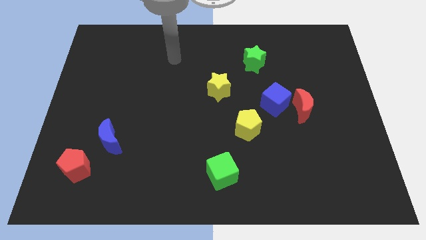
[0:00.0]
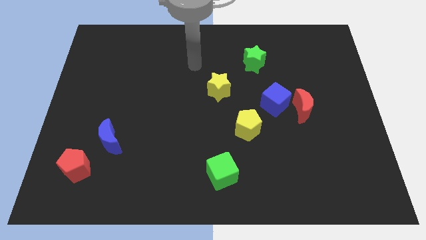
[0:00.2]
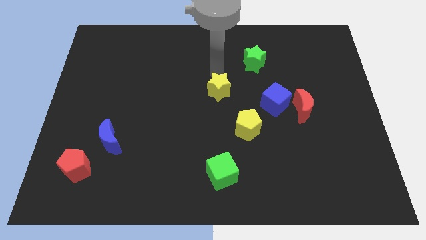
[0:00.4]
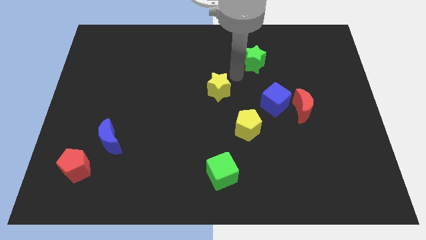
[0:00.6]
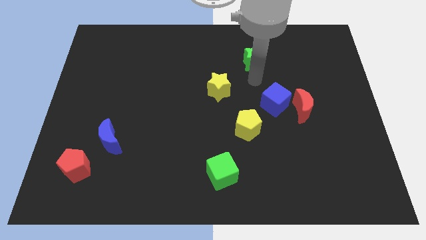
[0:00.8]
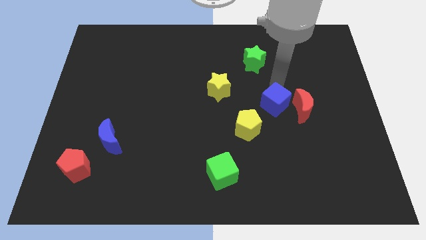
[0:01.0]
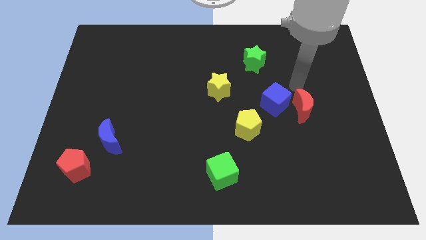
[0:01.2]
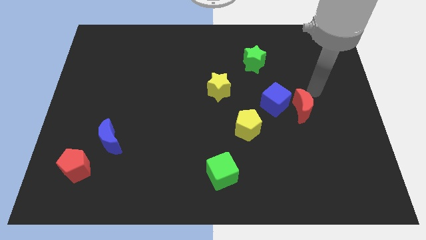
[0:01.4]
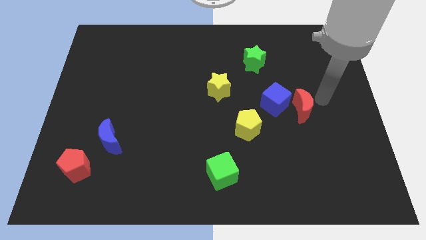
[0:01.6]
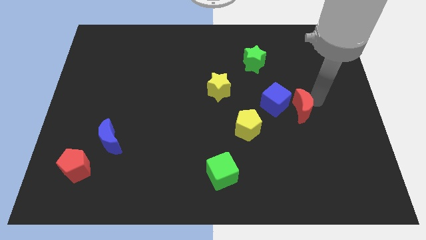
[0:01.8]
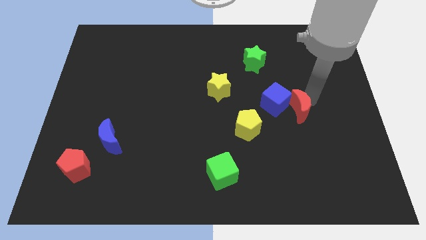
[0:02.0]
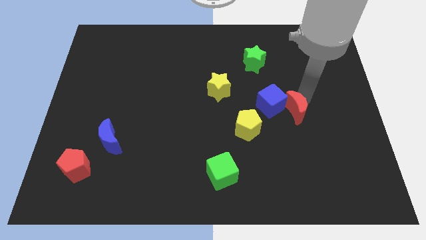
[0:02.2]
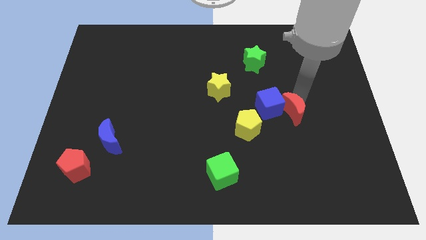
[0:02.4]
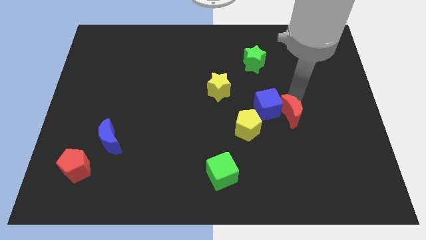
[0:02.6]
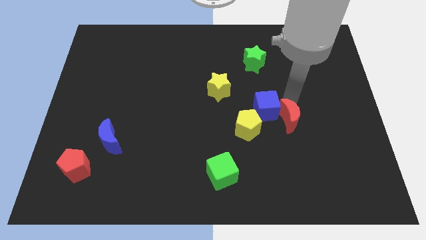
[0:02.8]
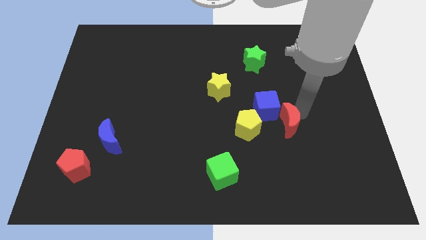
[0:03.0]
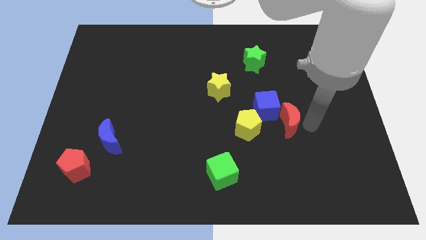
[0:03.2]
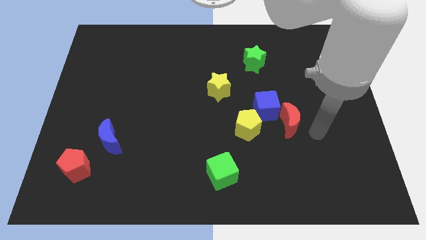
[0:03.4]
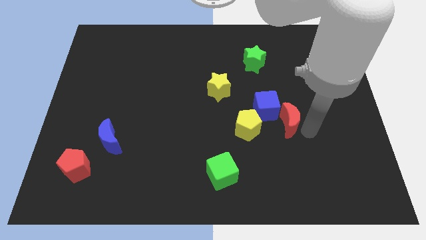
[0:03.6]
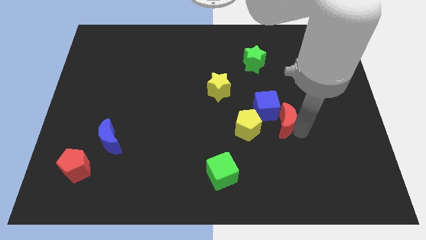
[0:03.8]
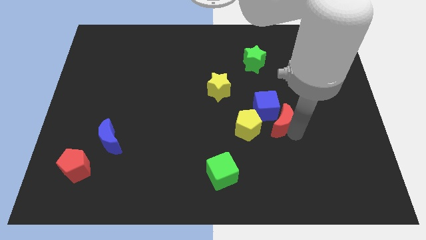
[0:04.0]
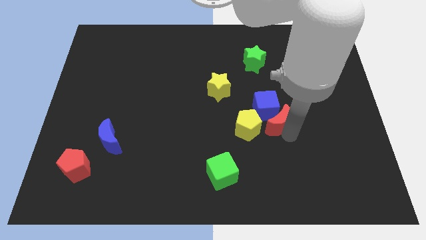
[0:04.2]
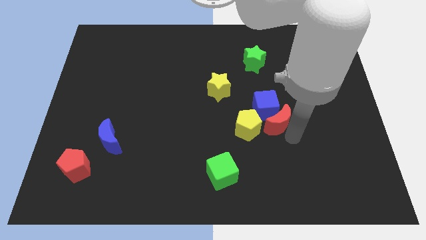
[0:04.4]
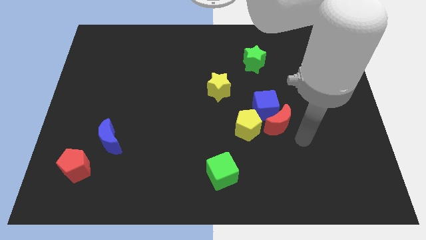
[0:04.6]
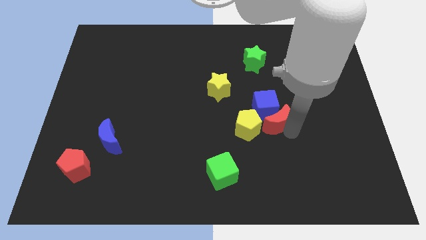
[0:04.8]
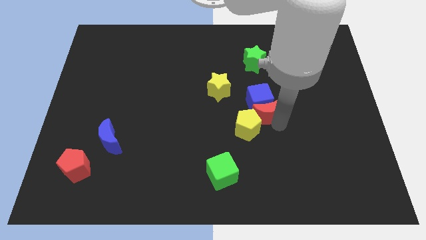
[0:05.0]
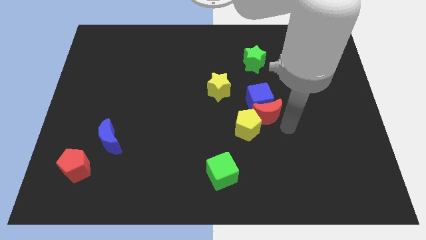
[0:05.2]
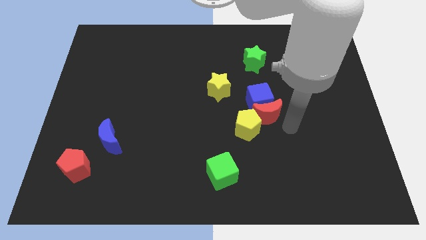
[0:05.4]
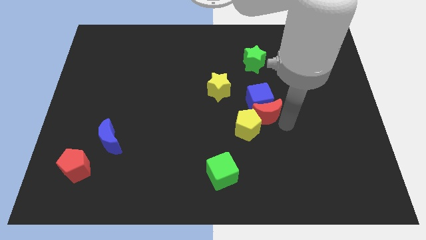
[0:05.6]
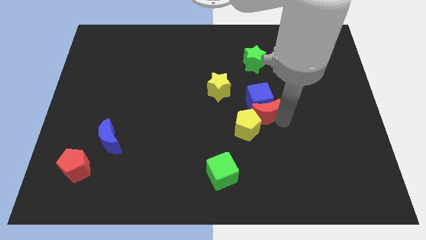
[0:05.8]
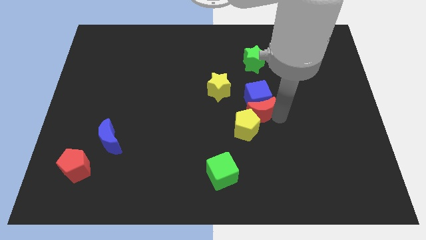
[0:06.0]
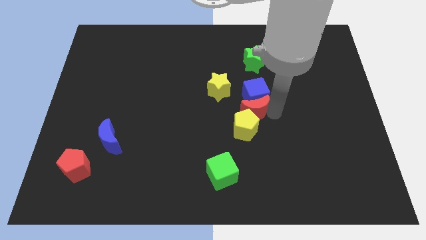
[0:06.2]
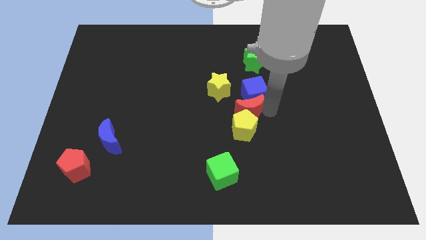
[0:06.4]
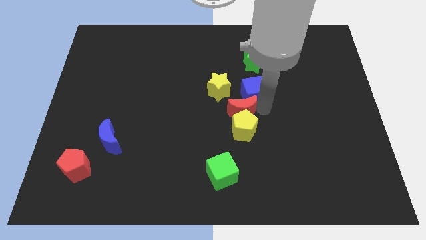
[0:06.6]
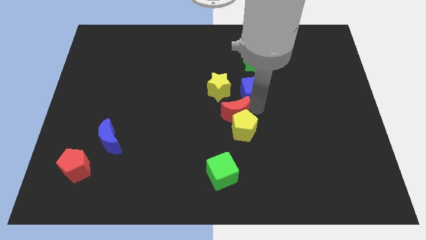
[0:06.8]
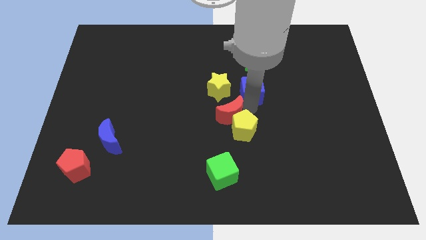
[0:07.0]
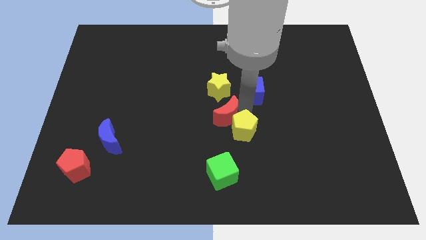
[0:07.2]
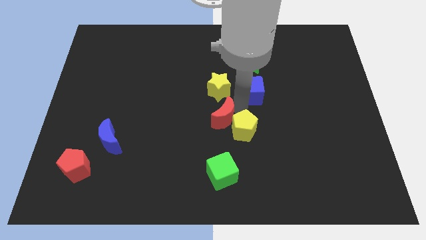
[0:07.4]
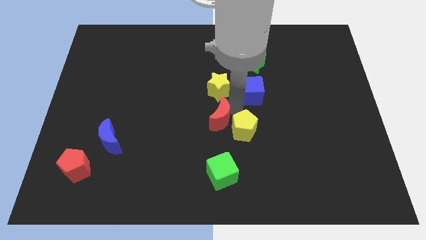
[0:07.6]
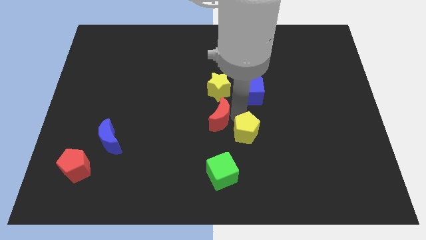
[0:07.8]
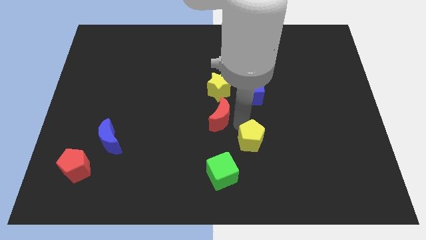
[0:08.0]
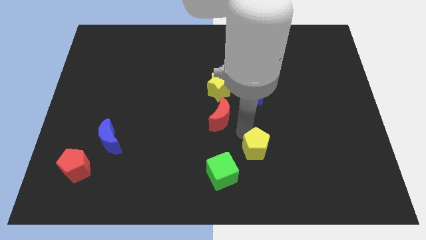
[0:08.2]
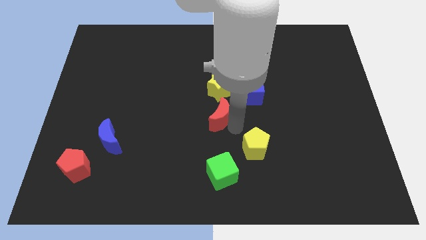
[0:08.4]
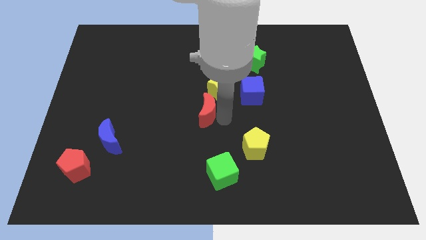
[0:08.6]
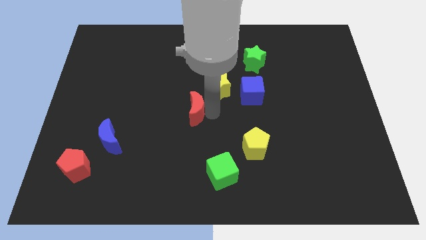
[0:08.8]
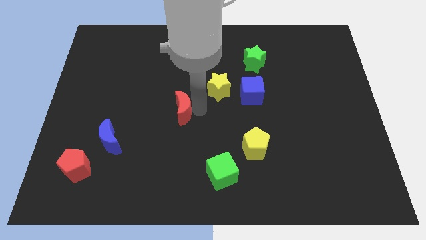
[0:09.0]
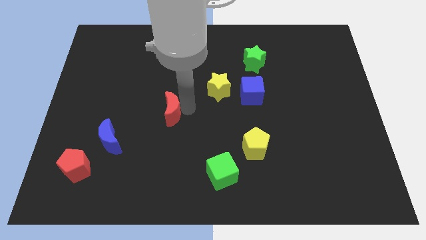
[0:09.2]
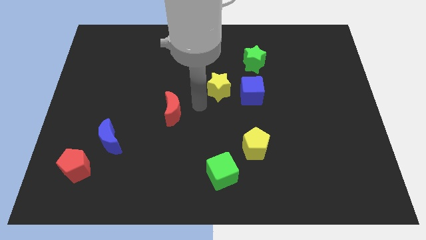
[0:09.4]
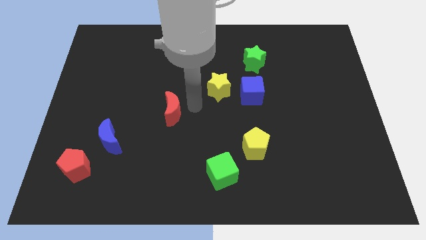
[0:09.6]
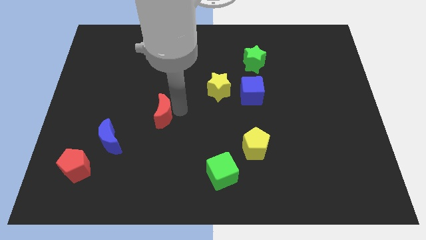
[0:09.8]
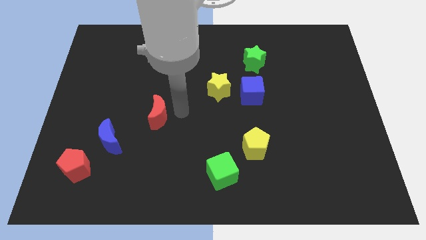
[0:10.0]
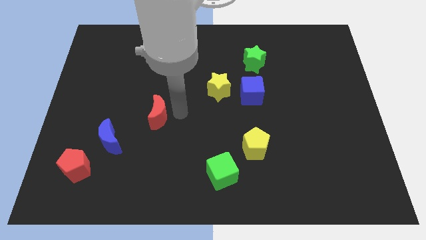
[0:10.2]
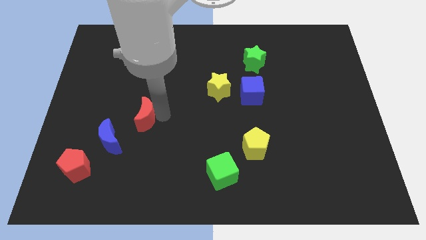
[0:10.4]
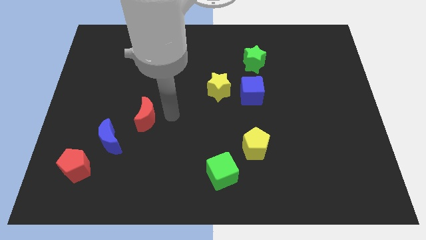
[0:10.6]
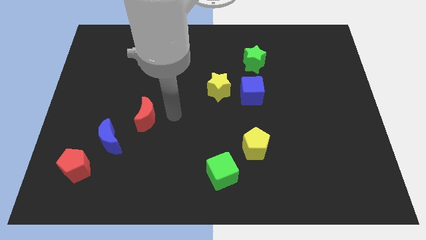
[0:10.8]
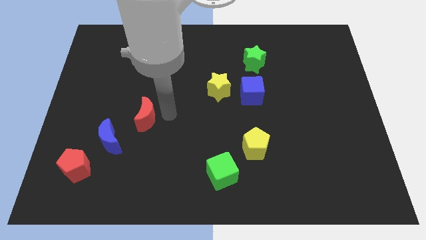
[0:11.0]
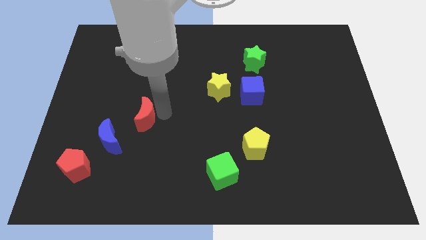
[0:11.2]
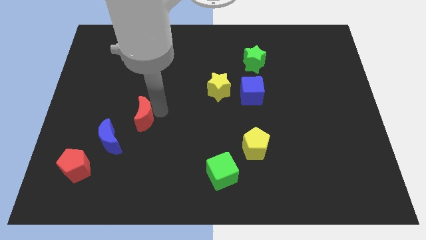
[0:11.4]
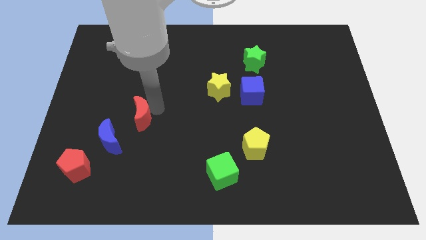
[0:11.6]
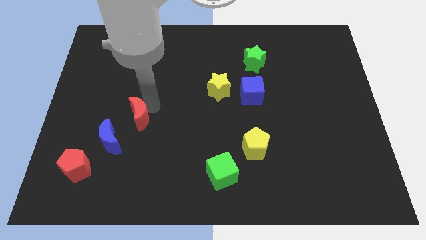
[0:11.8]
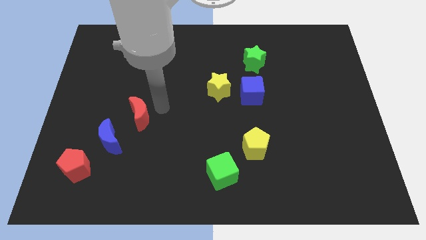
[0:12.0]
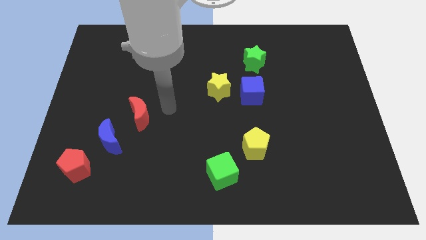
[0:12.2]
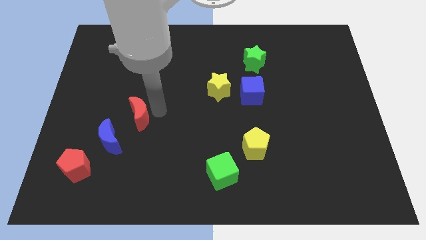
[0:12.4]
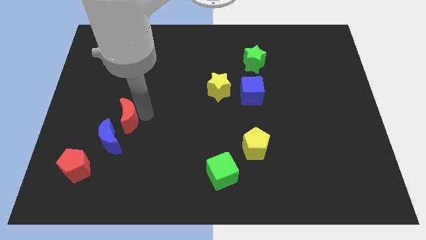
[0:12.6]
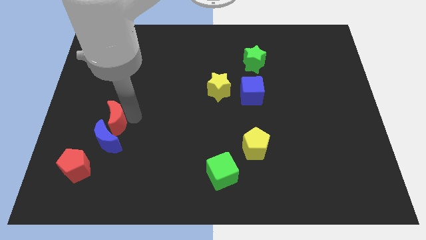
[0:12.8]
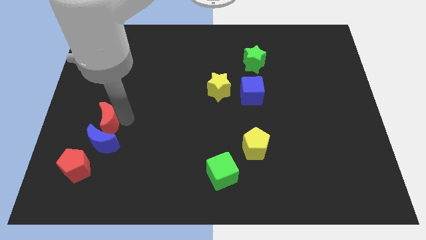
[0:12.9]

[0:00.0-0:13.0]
put the red moon diagonally up and to the left of the blue moon
